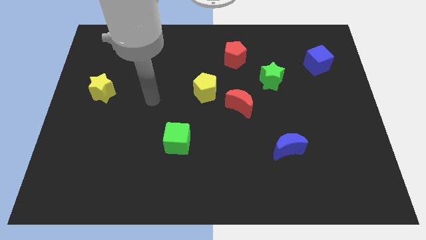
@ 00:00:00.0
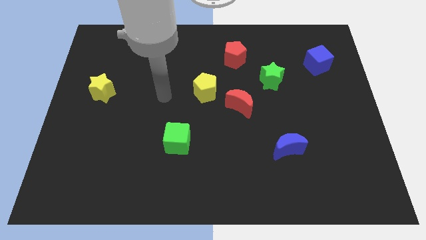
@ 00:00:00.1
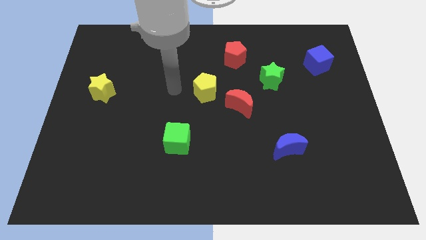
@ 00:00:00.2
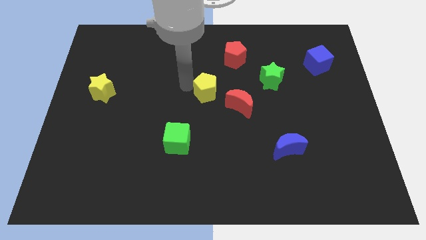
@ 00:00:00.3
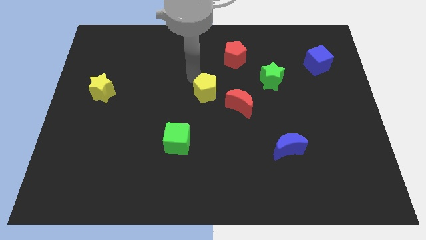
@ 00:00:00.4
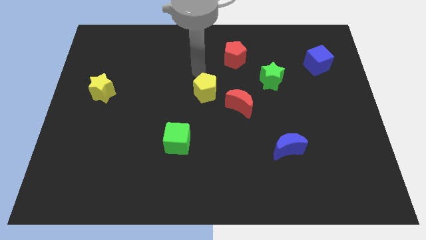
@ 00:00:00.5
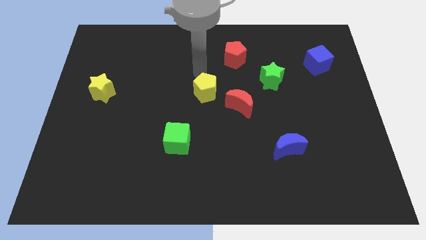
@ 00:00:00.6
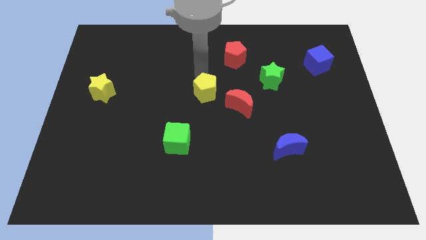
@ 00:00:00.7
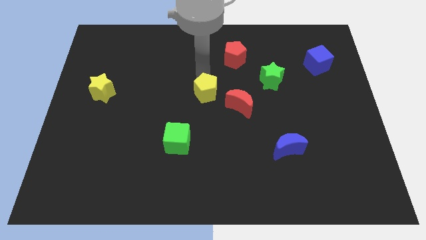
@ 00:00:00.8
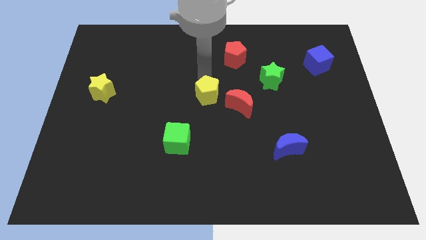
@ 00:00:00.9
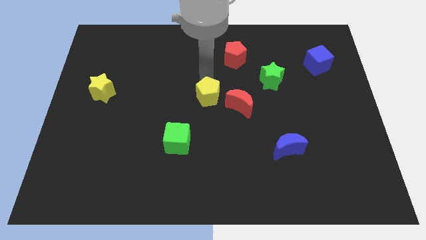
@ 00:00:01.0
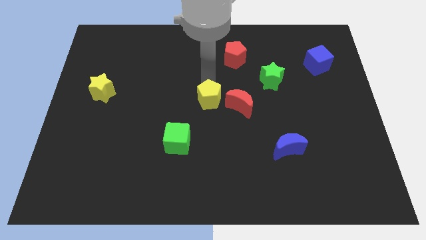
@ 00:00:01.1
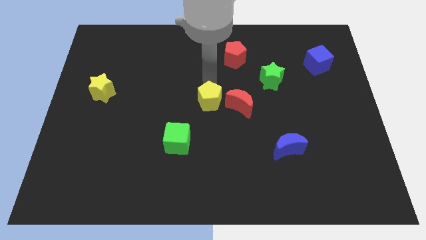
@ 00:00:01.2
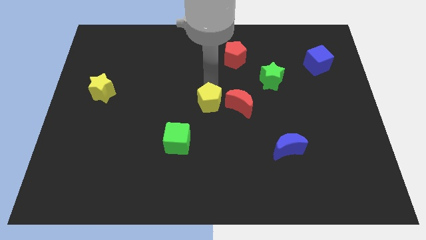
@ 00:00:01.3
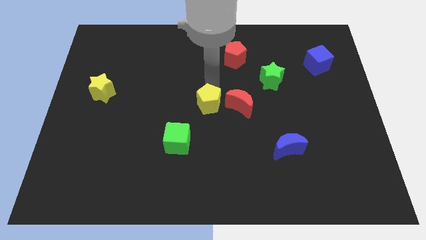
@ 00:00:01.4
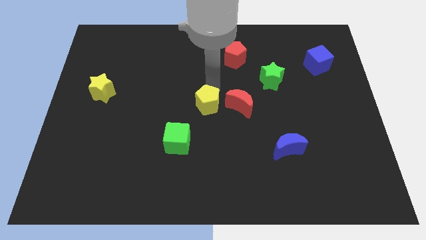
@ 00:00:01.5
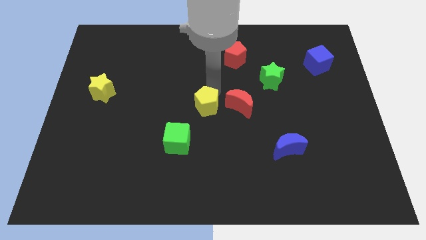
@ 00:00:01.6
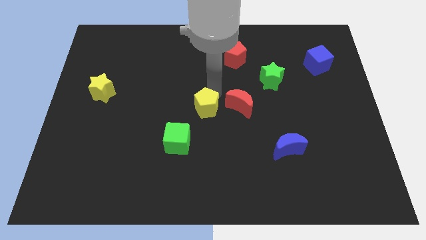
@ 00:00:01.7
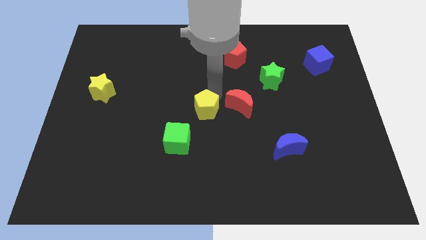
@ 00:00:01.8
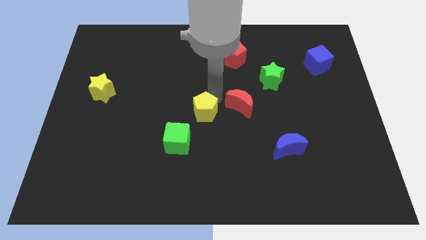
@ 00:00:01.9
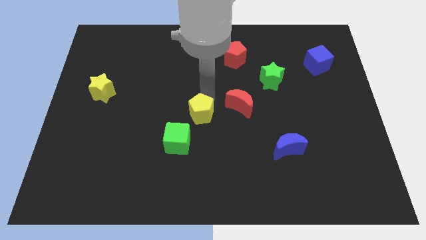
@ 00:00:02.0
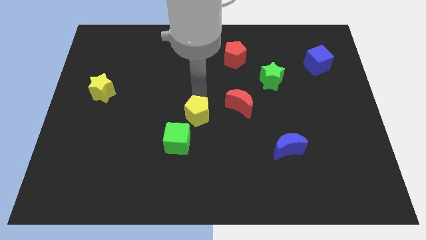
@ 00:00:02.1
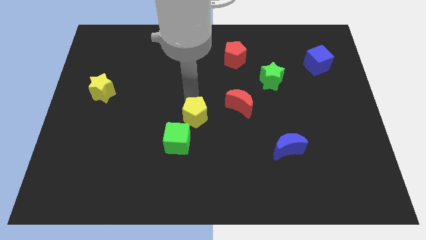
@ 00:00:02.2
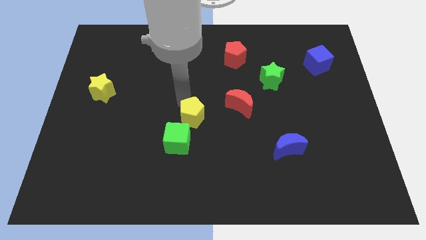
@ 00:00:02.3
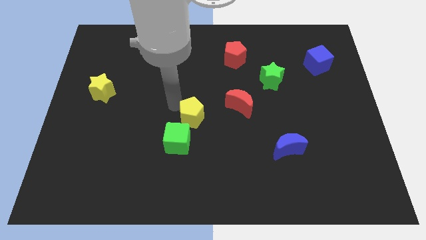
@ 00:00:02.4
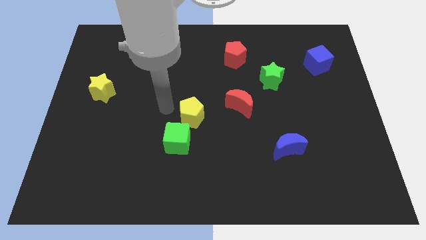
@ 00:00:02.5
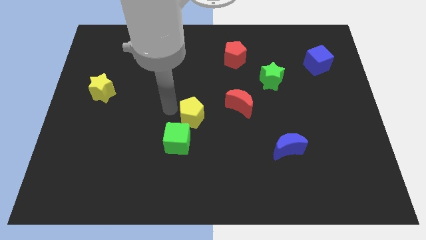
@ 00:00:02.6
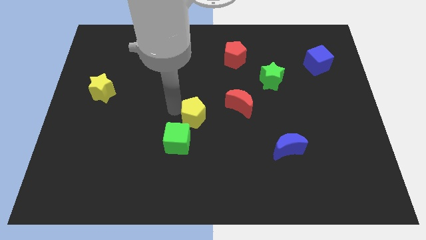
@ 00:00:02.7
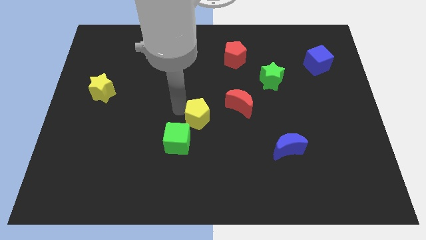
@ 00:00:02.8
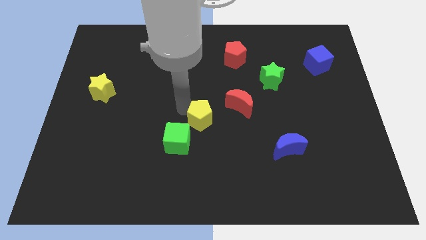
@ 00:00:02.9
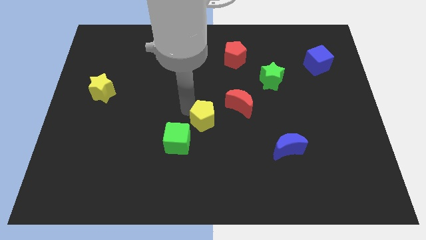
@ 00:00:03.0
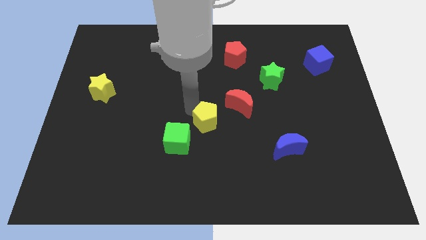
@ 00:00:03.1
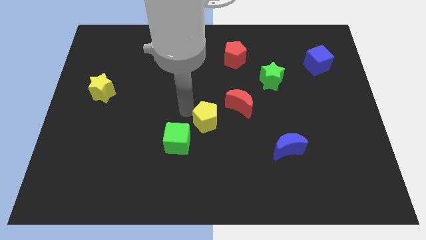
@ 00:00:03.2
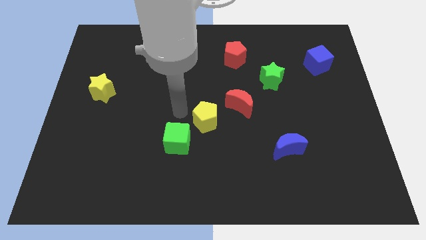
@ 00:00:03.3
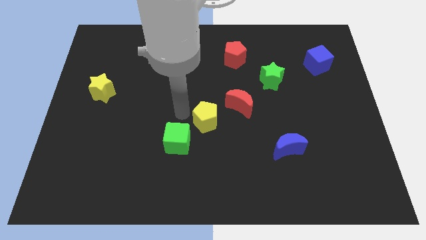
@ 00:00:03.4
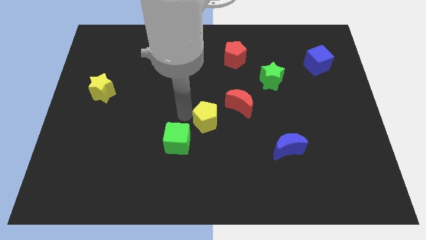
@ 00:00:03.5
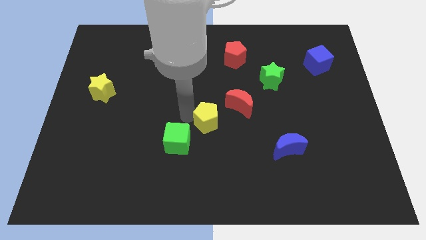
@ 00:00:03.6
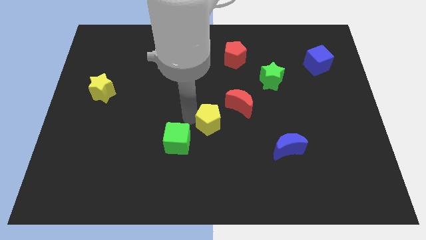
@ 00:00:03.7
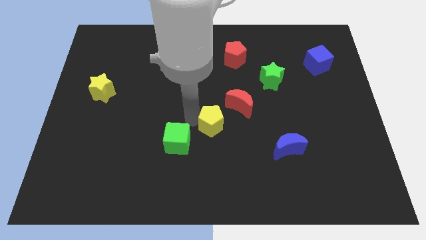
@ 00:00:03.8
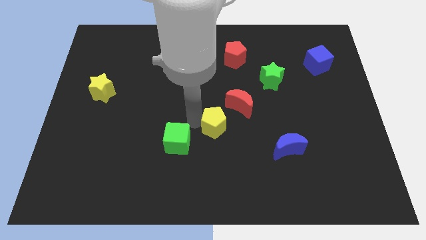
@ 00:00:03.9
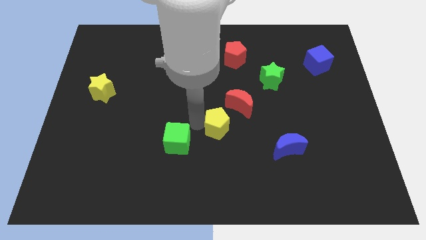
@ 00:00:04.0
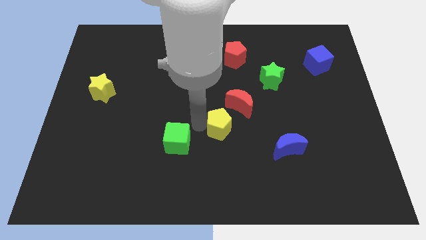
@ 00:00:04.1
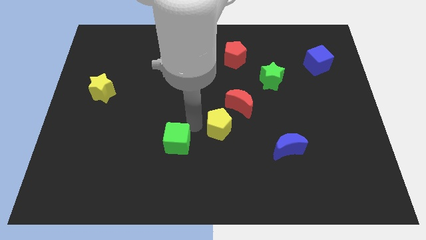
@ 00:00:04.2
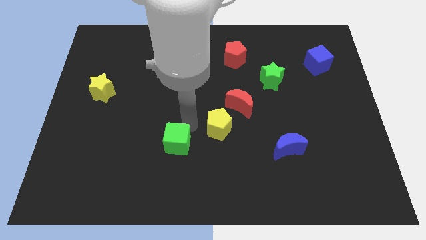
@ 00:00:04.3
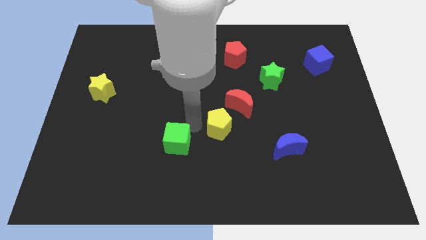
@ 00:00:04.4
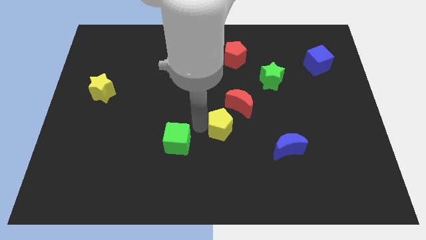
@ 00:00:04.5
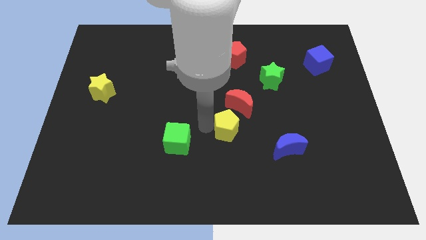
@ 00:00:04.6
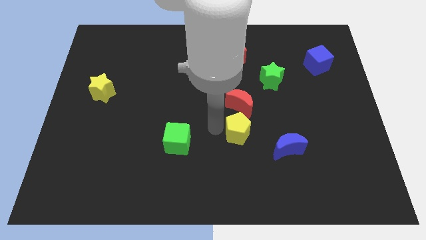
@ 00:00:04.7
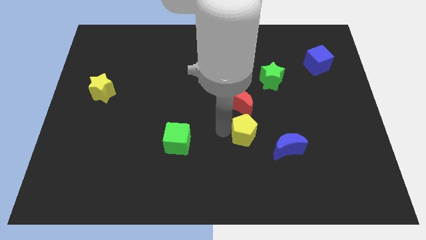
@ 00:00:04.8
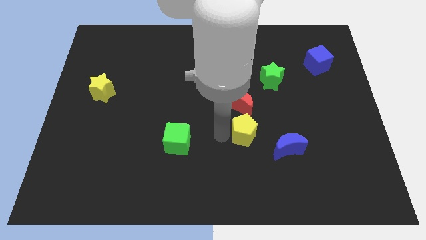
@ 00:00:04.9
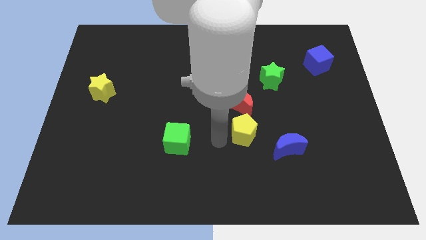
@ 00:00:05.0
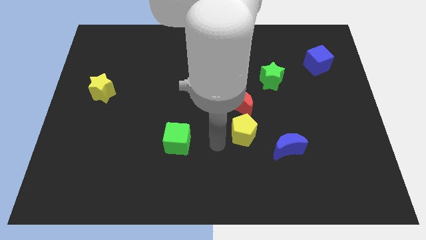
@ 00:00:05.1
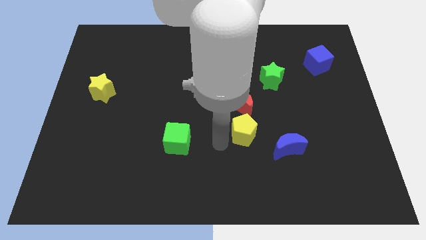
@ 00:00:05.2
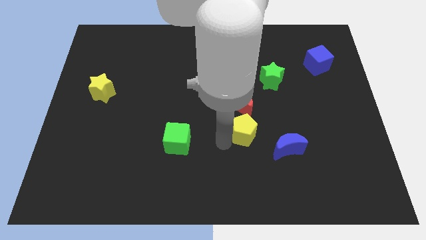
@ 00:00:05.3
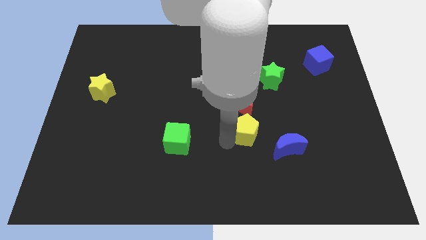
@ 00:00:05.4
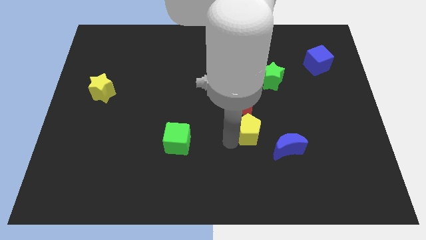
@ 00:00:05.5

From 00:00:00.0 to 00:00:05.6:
put the yellow pentagon diagonally down and to the right of the red moon

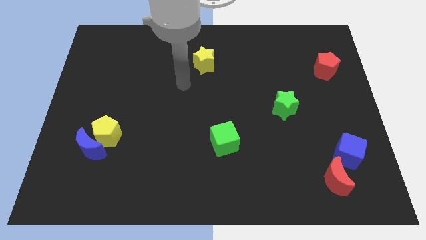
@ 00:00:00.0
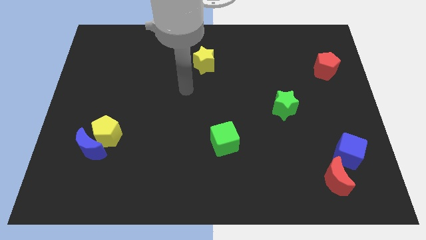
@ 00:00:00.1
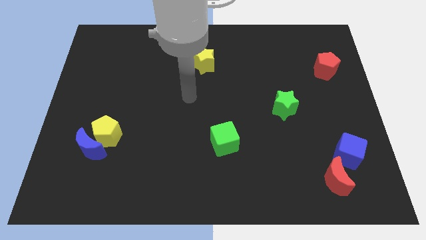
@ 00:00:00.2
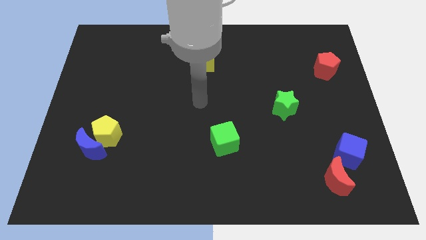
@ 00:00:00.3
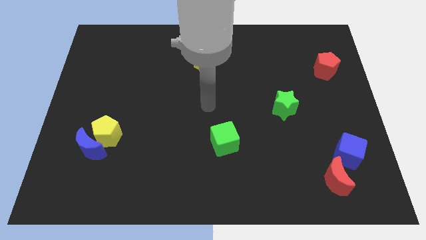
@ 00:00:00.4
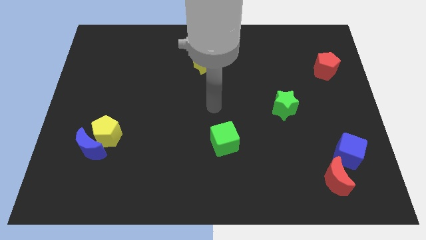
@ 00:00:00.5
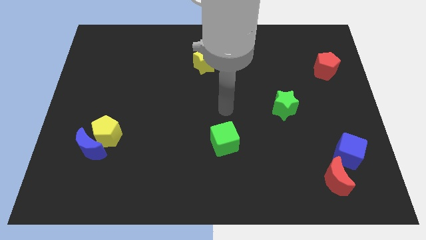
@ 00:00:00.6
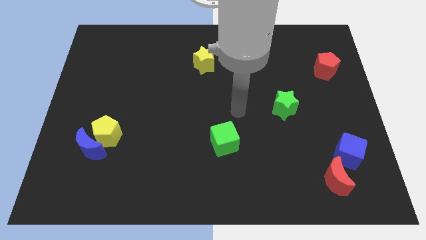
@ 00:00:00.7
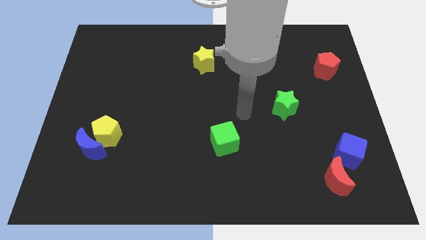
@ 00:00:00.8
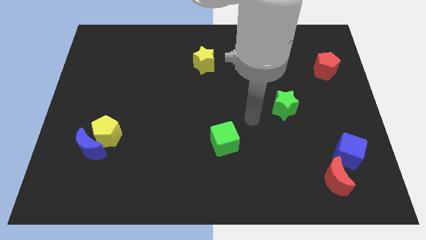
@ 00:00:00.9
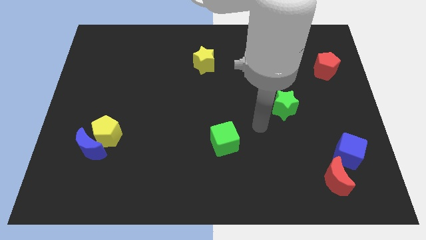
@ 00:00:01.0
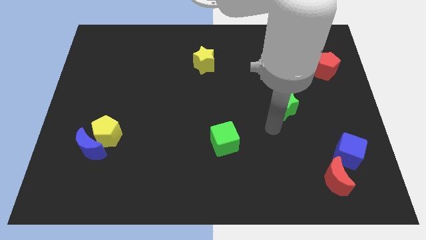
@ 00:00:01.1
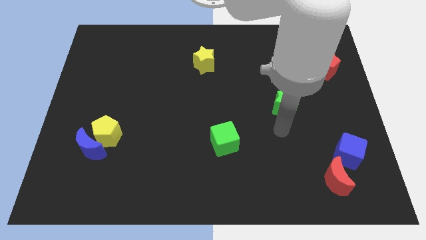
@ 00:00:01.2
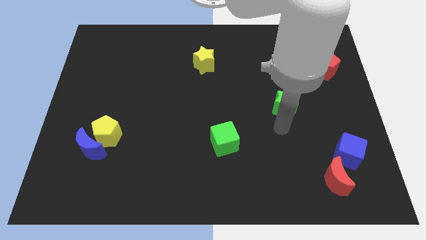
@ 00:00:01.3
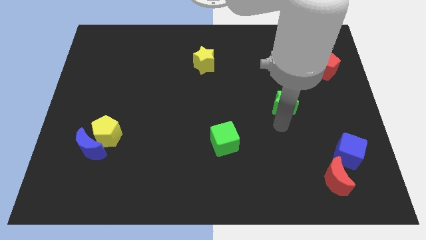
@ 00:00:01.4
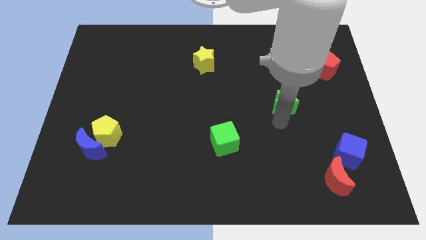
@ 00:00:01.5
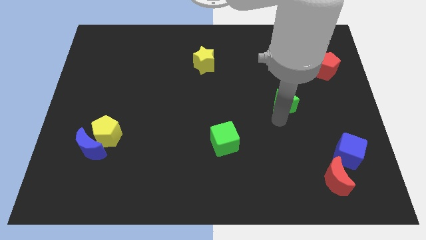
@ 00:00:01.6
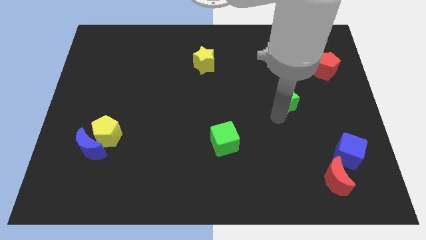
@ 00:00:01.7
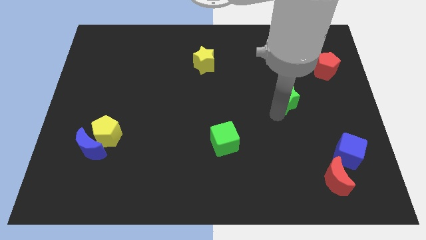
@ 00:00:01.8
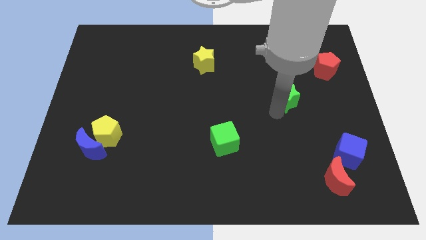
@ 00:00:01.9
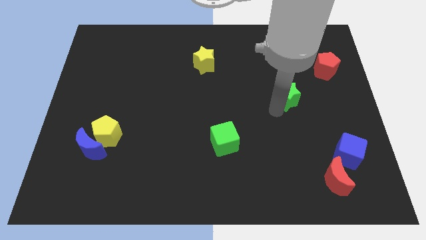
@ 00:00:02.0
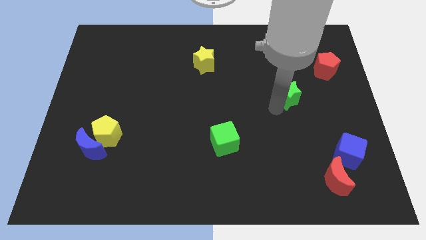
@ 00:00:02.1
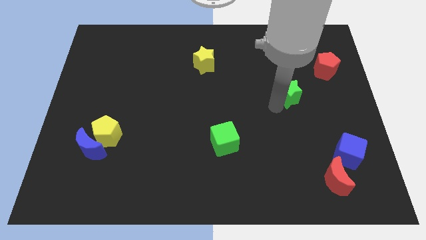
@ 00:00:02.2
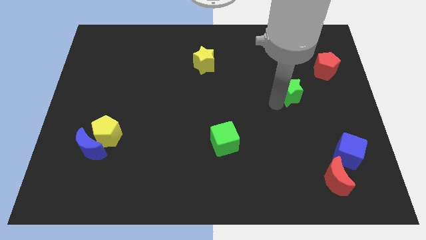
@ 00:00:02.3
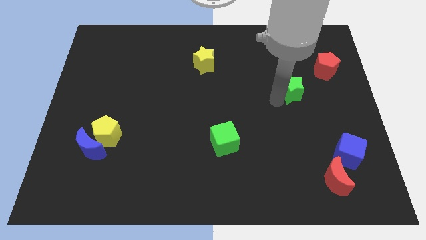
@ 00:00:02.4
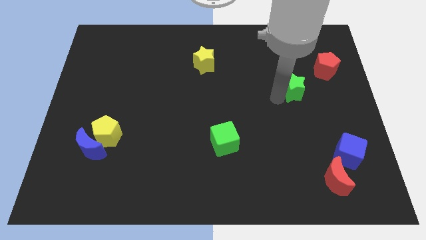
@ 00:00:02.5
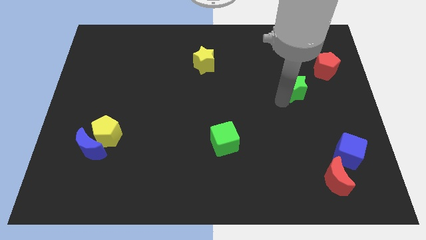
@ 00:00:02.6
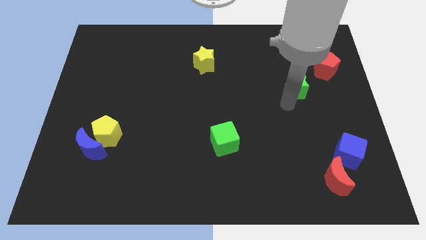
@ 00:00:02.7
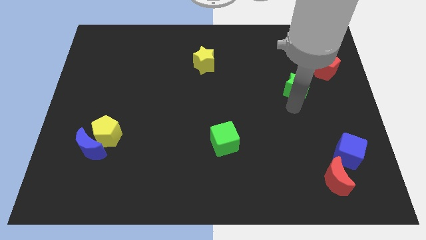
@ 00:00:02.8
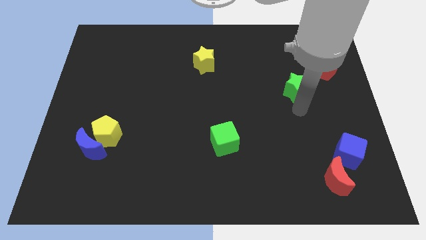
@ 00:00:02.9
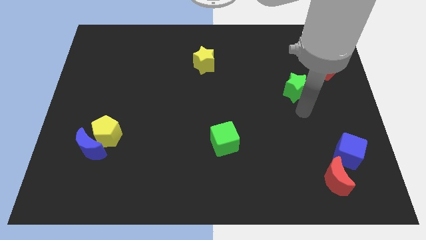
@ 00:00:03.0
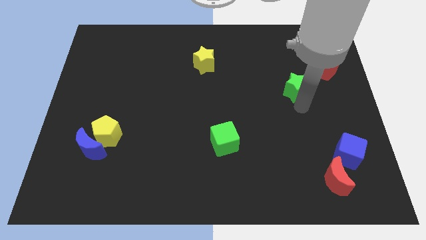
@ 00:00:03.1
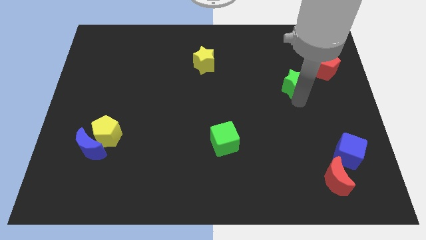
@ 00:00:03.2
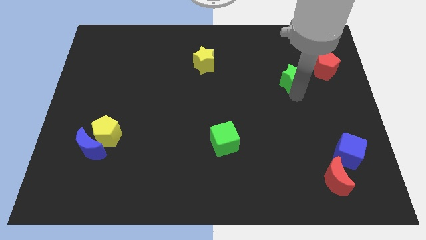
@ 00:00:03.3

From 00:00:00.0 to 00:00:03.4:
slide the green star to the left of the red pentagon
